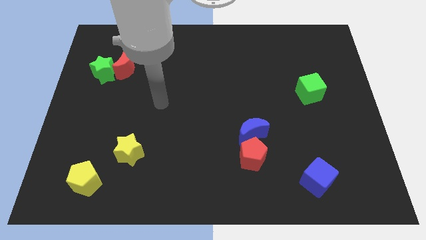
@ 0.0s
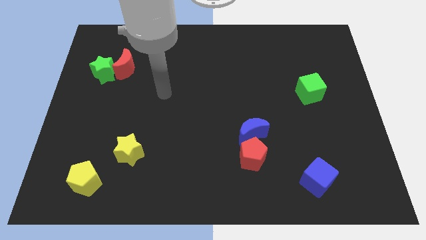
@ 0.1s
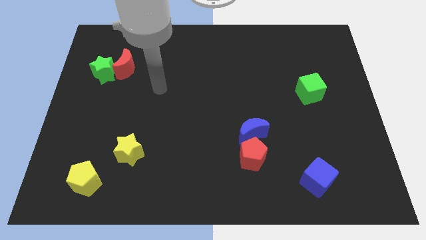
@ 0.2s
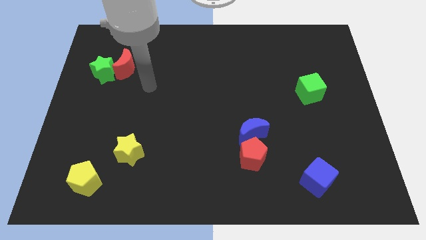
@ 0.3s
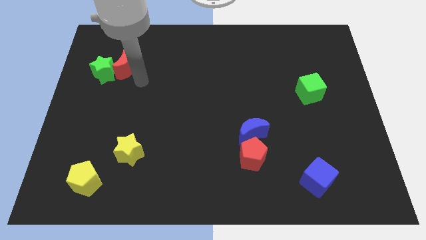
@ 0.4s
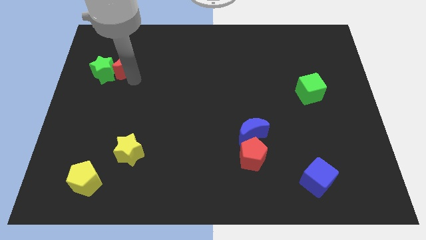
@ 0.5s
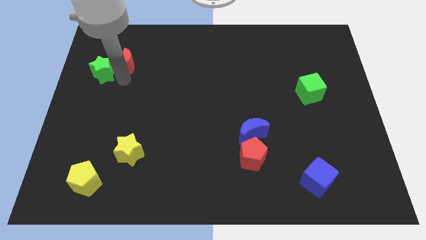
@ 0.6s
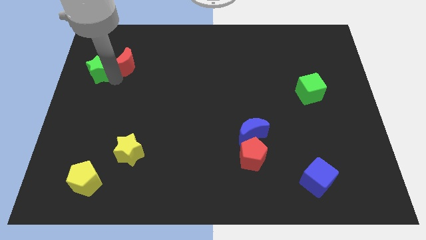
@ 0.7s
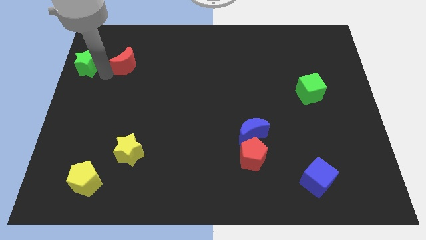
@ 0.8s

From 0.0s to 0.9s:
separate the red moon from the green star

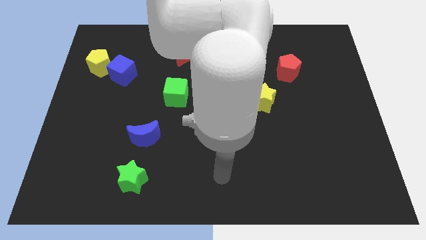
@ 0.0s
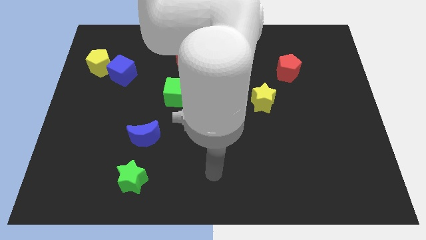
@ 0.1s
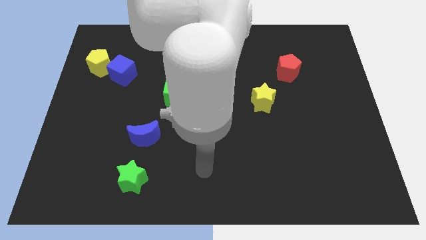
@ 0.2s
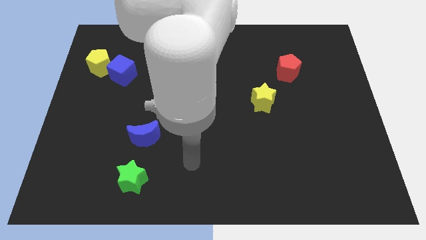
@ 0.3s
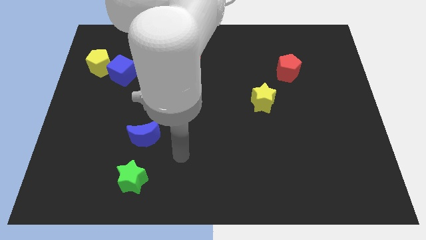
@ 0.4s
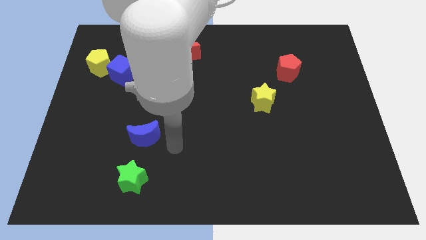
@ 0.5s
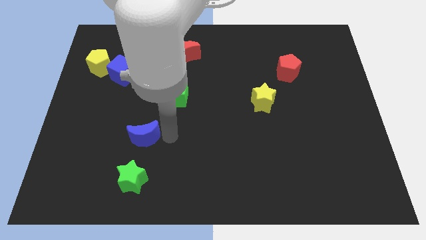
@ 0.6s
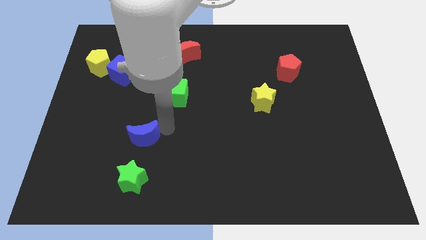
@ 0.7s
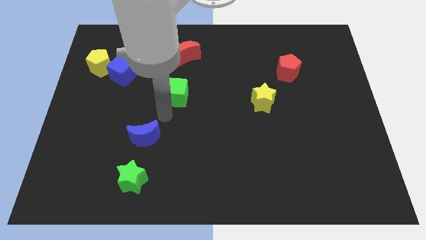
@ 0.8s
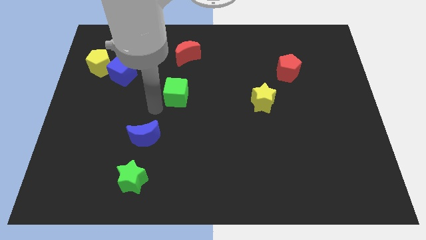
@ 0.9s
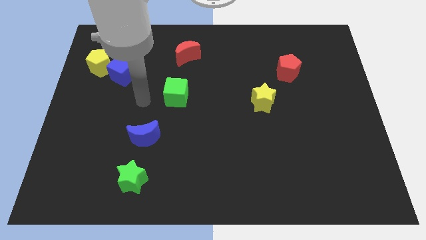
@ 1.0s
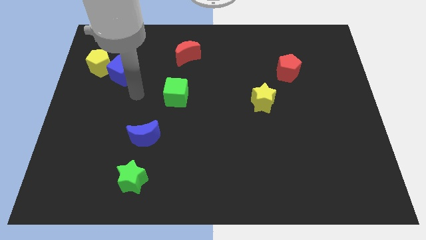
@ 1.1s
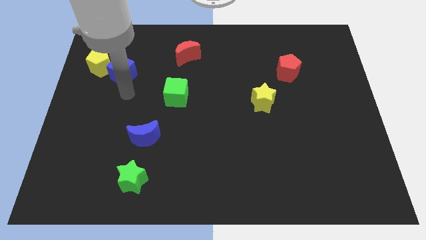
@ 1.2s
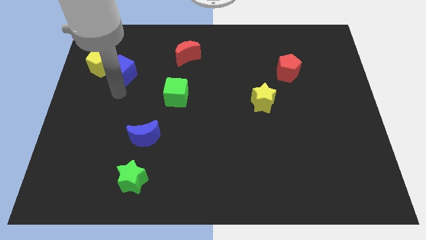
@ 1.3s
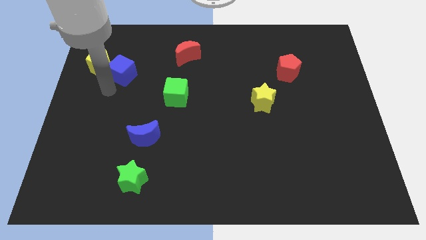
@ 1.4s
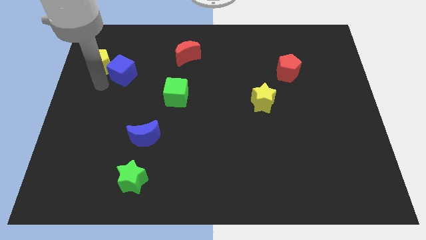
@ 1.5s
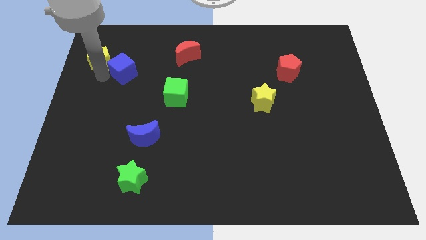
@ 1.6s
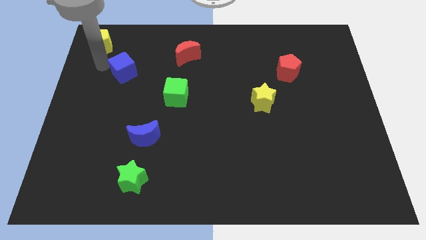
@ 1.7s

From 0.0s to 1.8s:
separate the blue cube from the yellow pentagon

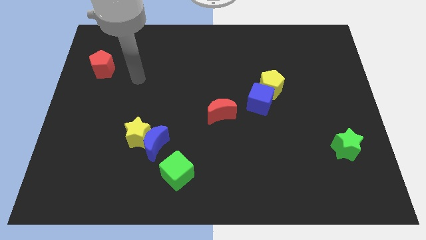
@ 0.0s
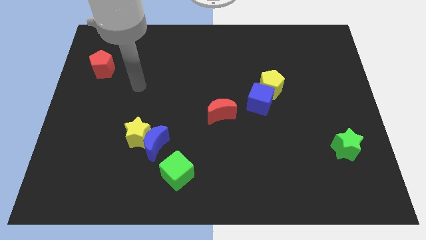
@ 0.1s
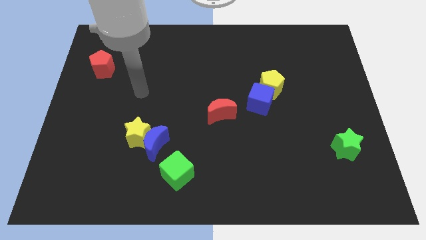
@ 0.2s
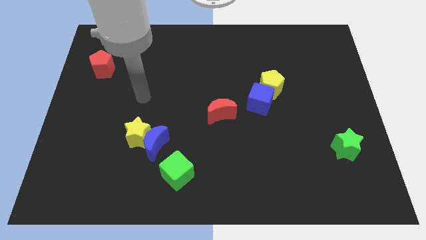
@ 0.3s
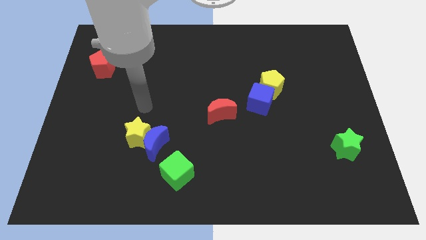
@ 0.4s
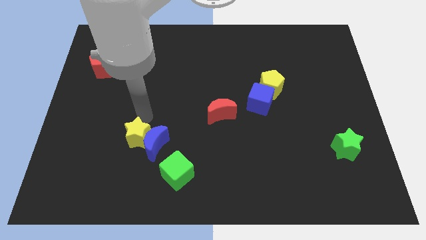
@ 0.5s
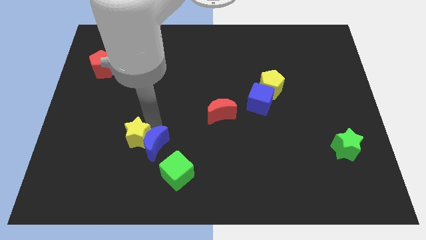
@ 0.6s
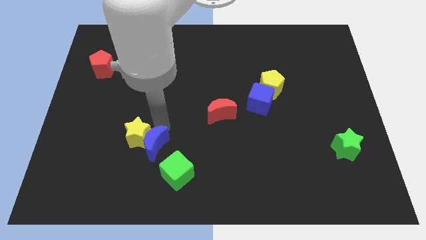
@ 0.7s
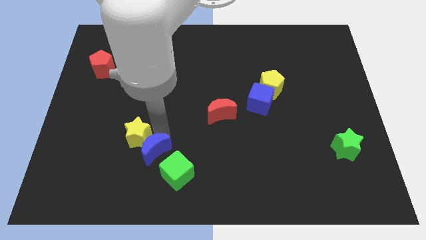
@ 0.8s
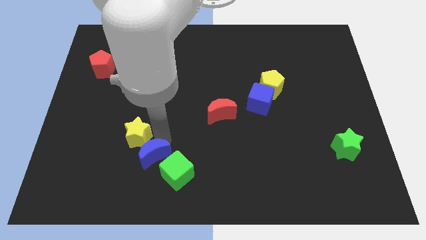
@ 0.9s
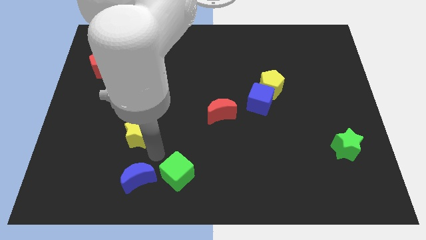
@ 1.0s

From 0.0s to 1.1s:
move the yellow star away from the blue moon

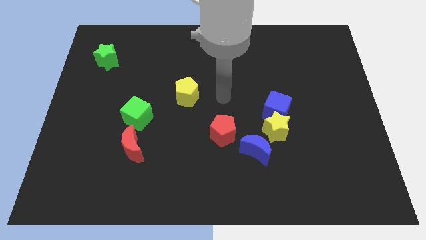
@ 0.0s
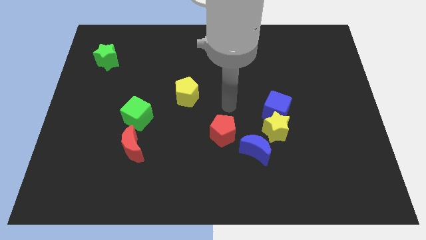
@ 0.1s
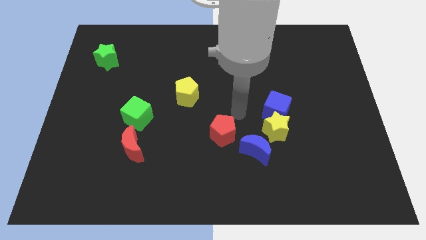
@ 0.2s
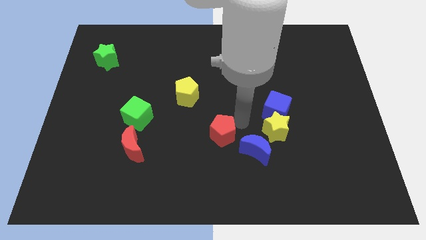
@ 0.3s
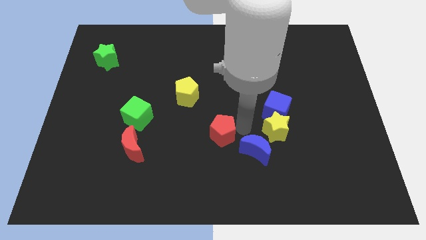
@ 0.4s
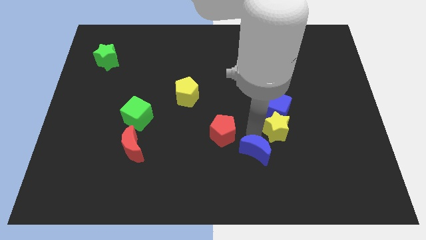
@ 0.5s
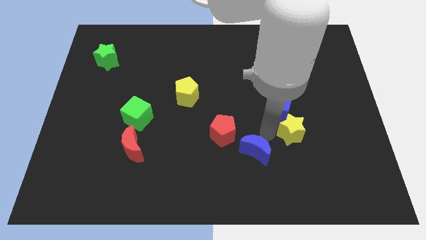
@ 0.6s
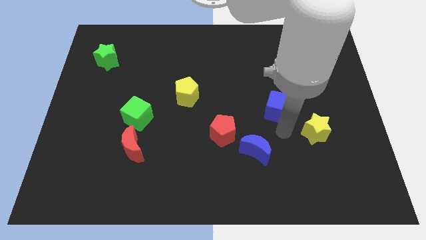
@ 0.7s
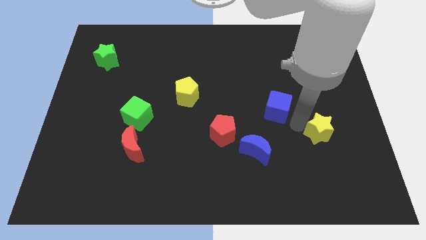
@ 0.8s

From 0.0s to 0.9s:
move the blue cube away from the yellow star

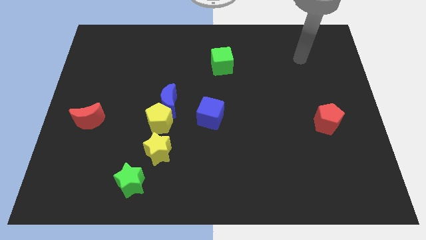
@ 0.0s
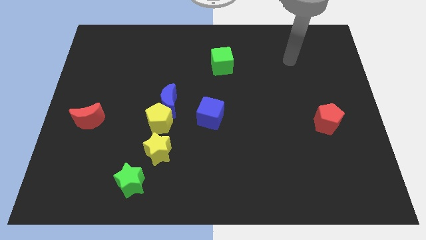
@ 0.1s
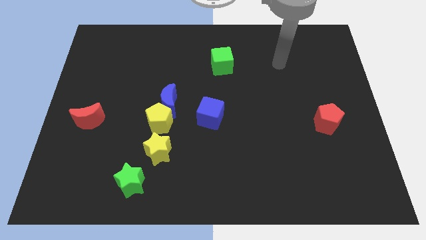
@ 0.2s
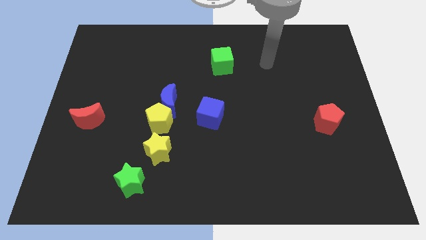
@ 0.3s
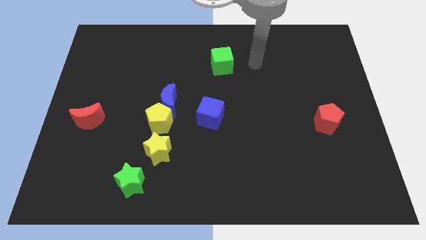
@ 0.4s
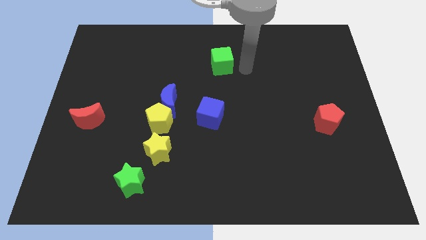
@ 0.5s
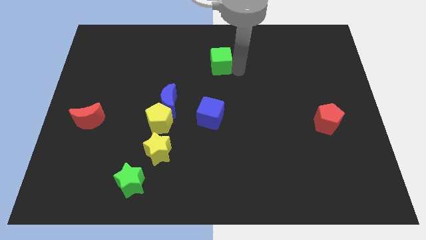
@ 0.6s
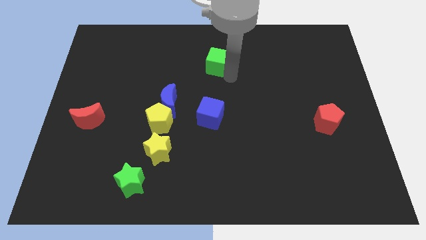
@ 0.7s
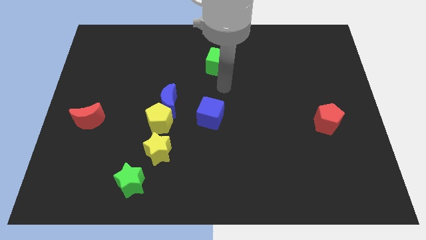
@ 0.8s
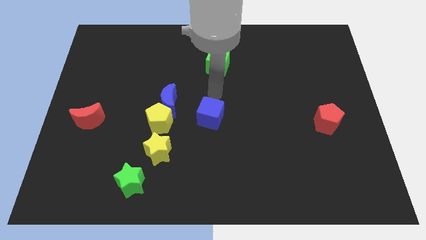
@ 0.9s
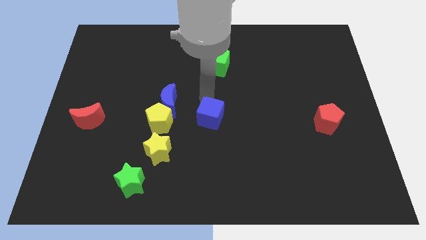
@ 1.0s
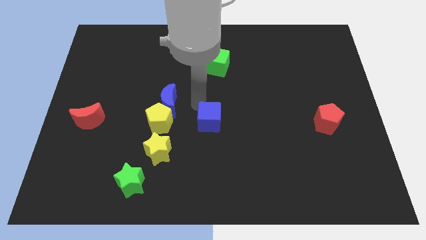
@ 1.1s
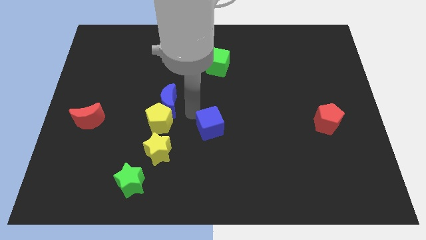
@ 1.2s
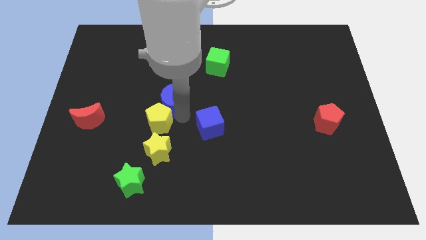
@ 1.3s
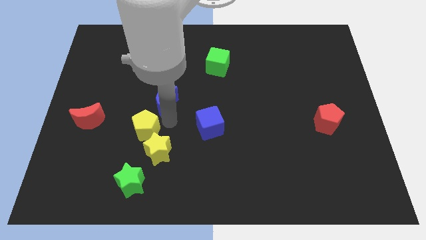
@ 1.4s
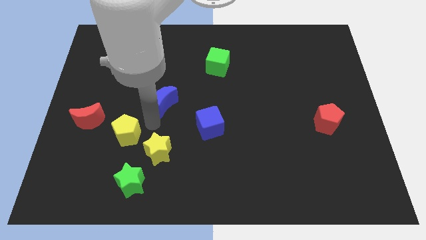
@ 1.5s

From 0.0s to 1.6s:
separate the blue moon from the yellow pentagon

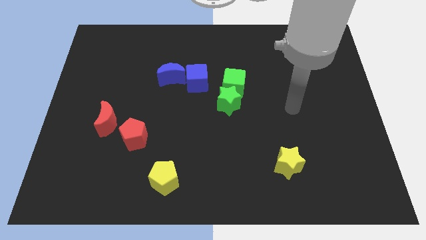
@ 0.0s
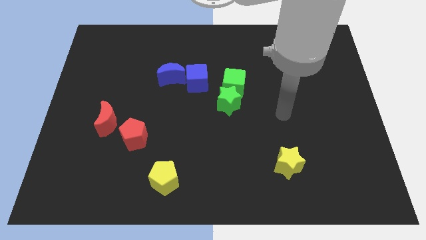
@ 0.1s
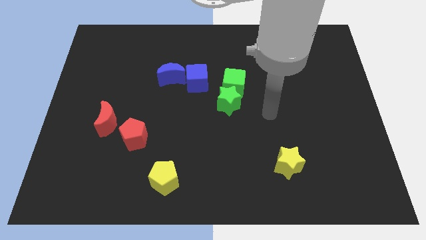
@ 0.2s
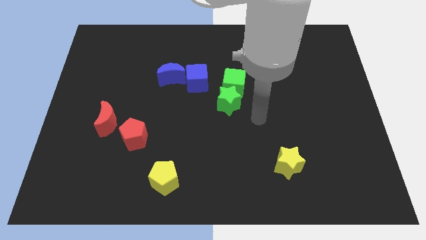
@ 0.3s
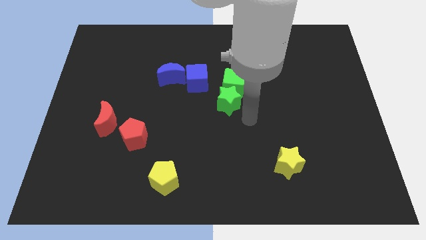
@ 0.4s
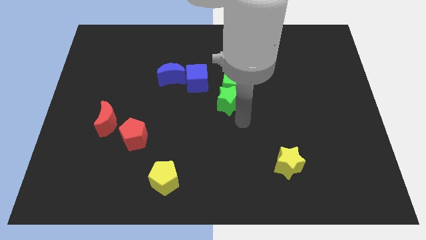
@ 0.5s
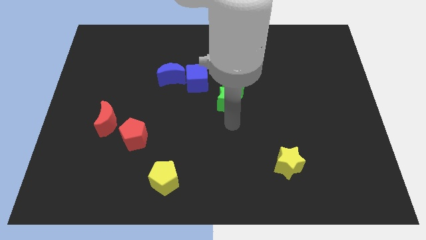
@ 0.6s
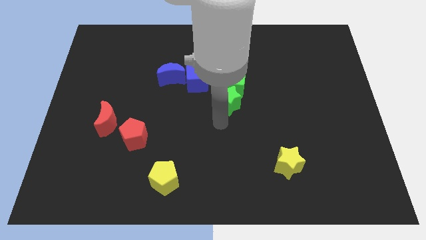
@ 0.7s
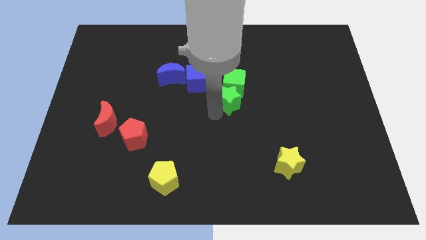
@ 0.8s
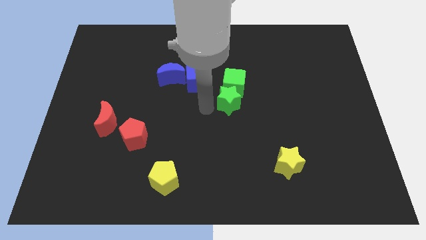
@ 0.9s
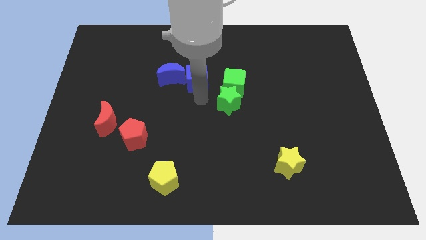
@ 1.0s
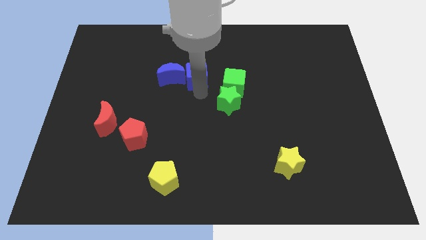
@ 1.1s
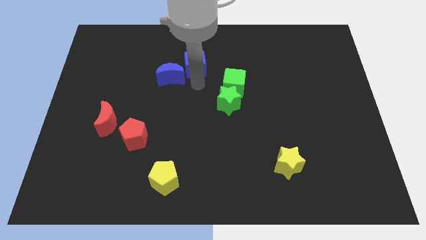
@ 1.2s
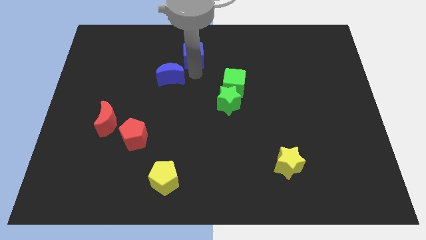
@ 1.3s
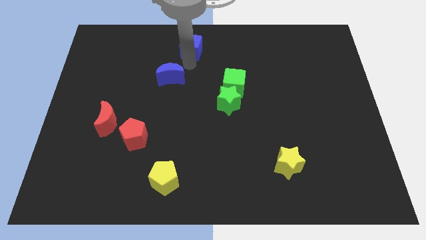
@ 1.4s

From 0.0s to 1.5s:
pull the blue moon apart from the blue cube

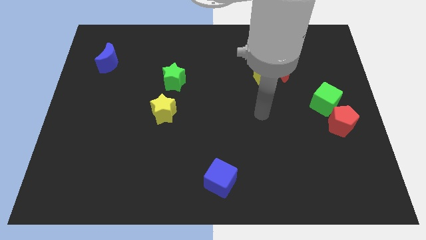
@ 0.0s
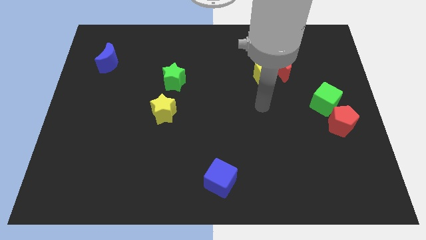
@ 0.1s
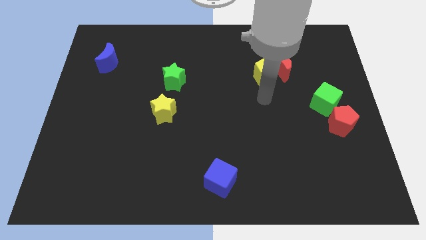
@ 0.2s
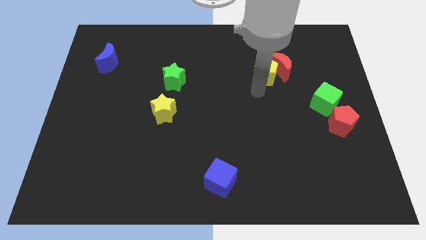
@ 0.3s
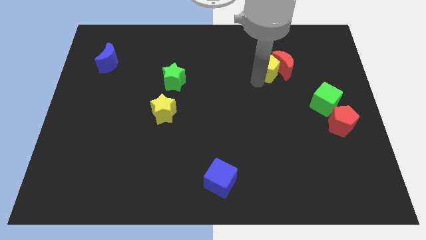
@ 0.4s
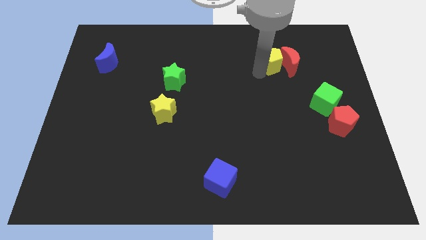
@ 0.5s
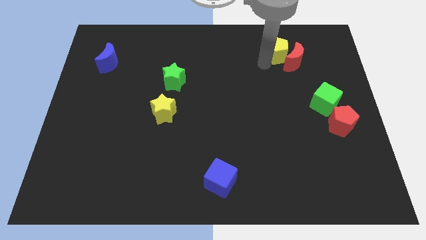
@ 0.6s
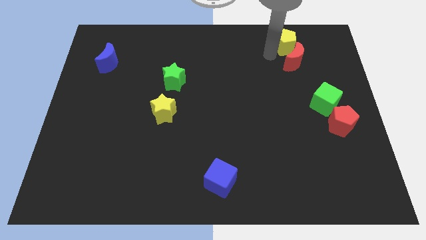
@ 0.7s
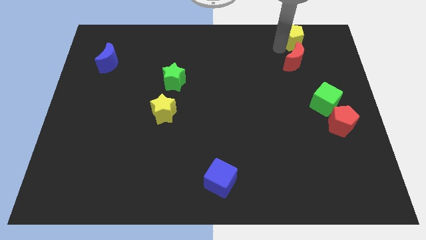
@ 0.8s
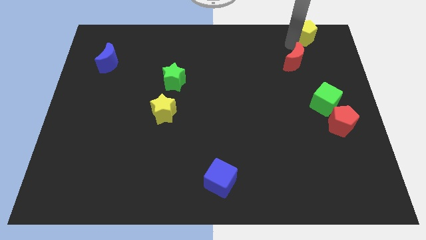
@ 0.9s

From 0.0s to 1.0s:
separate the red moon from the yellow pentagon

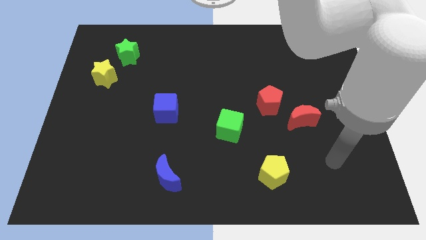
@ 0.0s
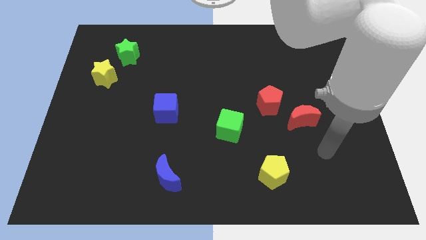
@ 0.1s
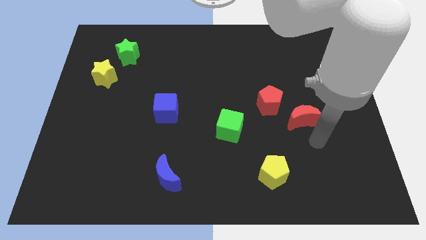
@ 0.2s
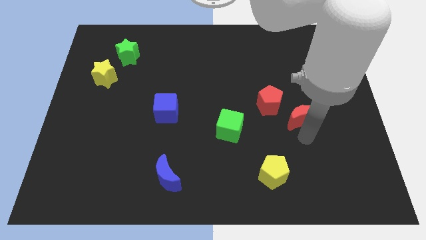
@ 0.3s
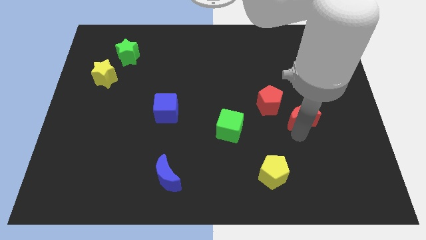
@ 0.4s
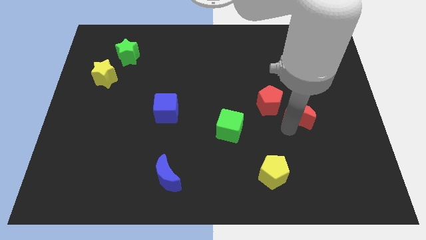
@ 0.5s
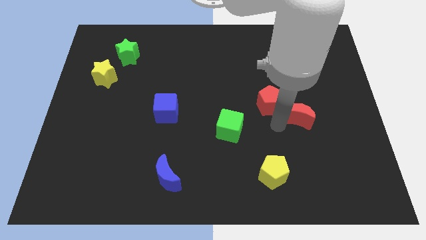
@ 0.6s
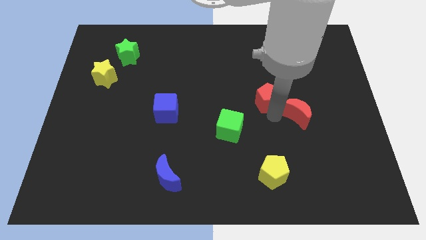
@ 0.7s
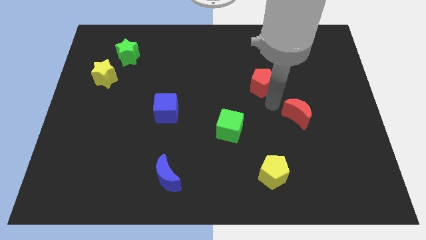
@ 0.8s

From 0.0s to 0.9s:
pull the red moon apart from the red pentagon
